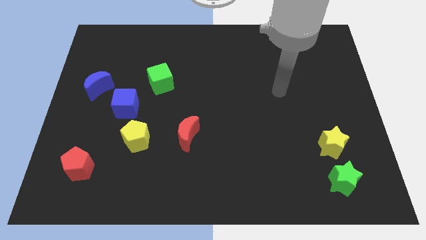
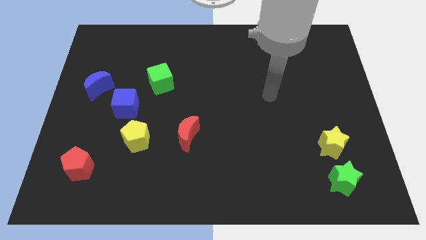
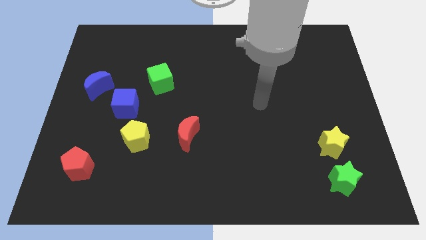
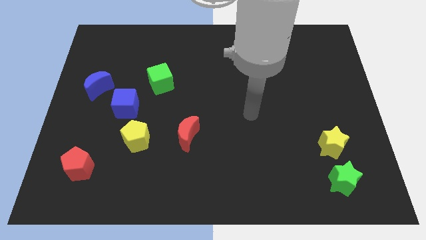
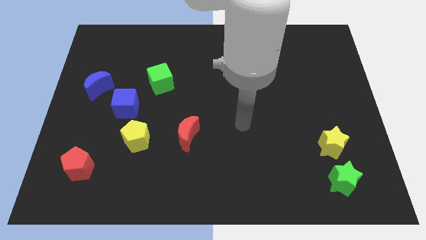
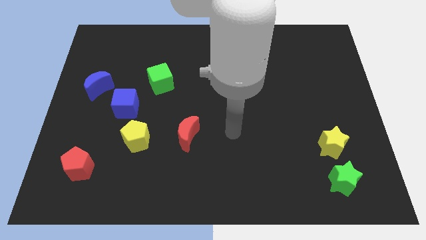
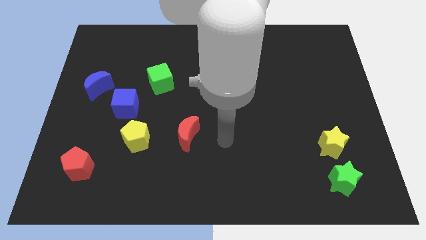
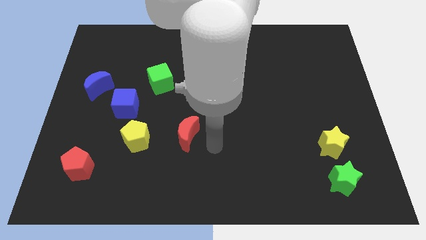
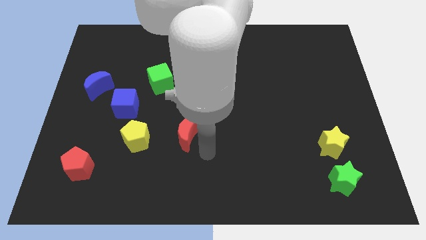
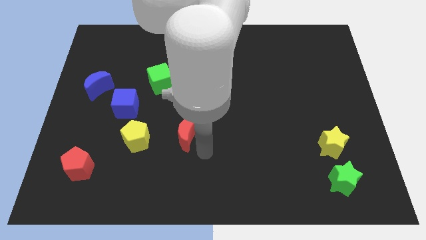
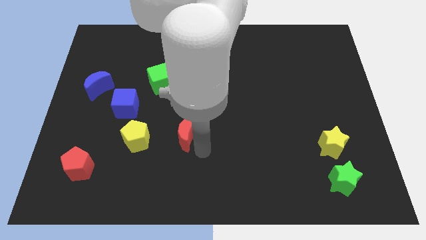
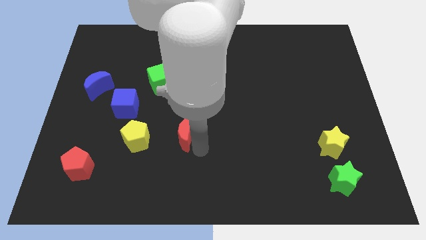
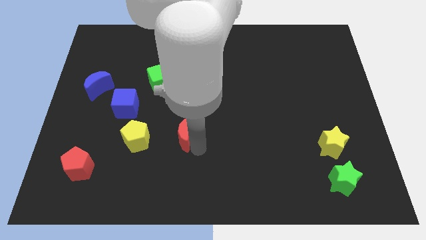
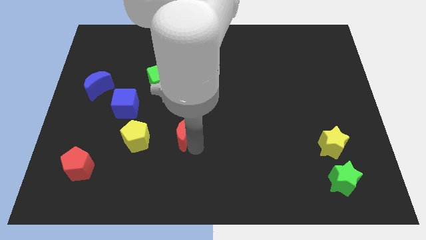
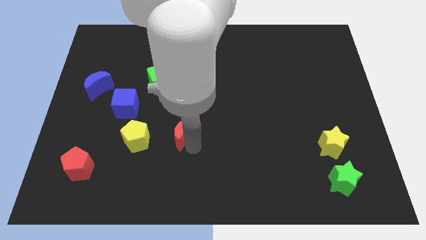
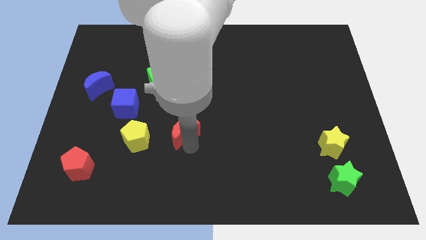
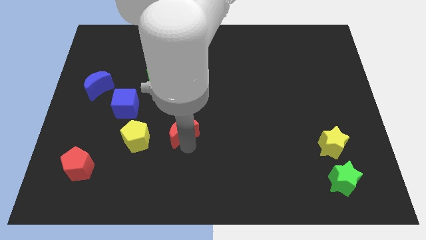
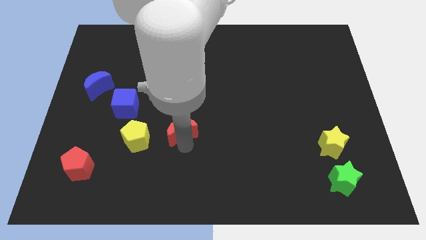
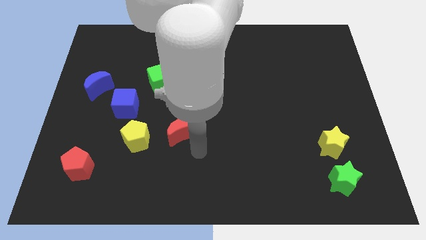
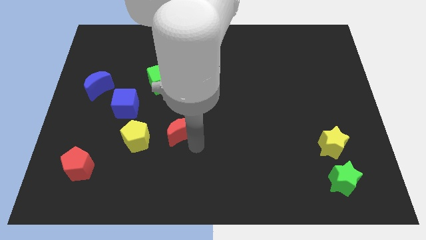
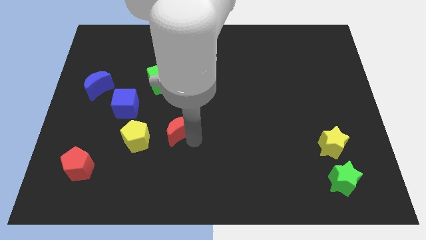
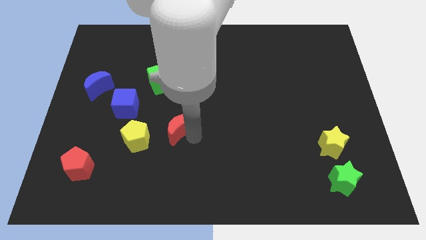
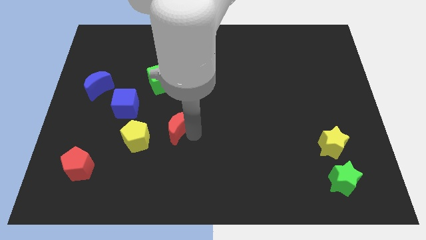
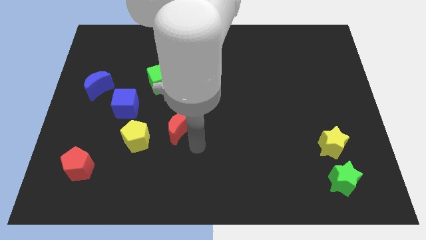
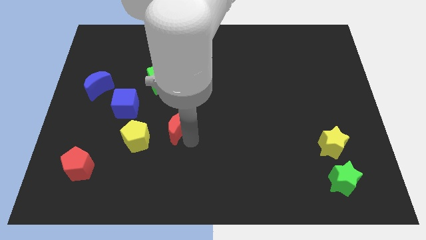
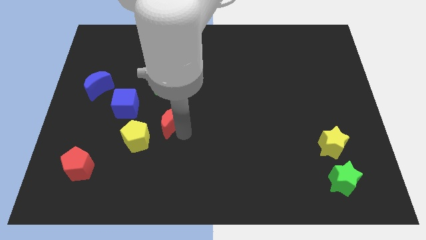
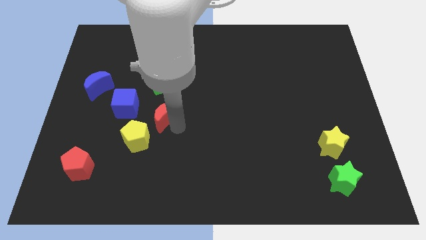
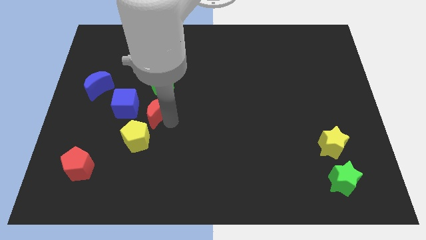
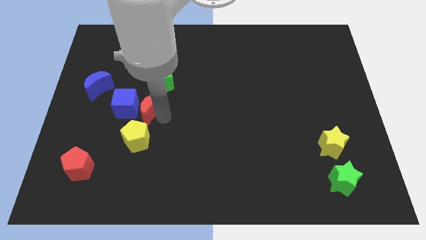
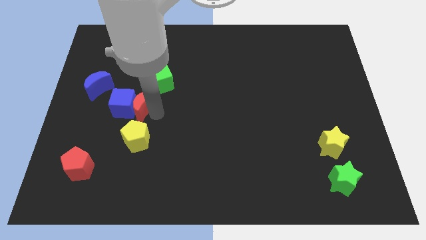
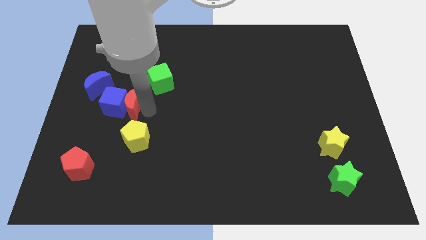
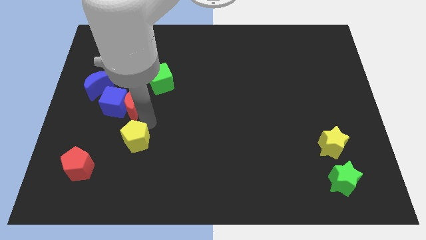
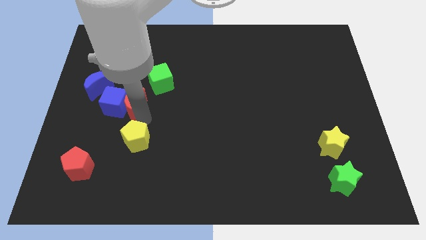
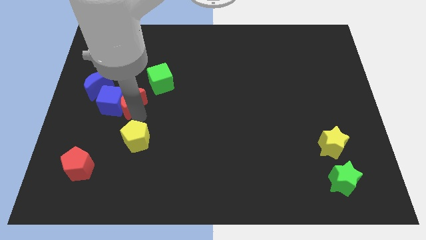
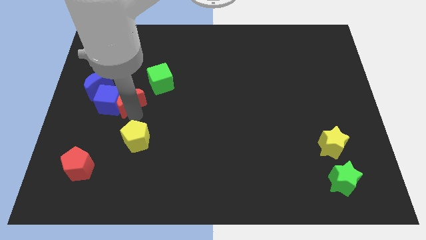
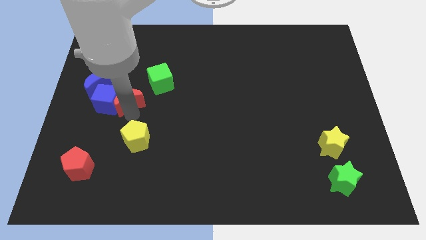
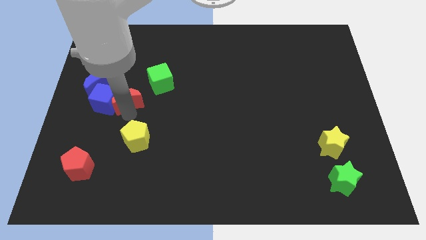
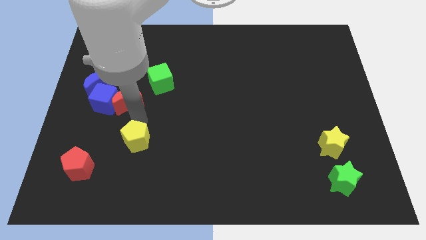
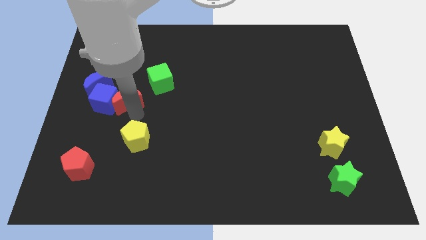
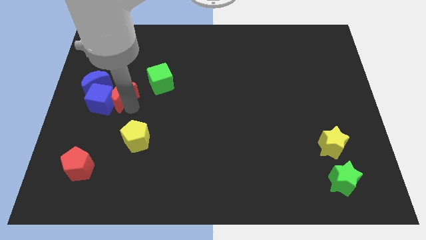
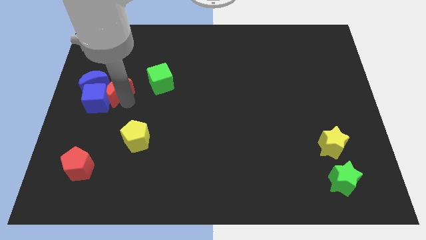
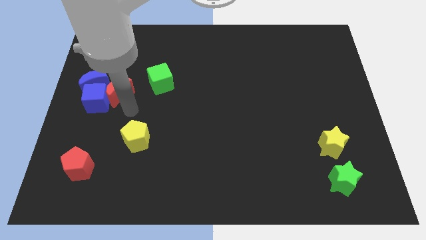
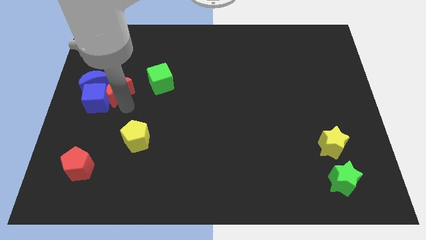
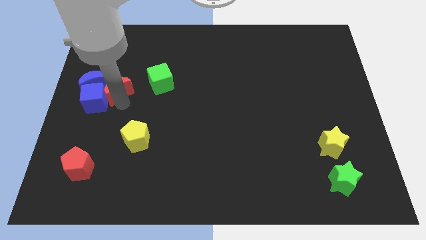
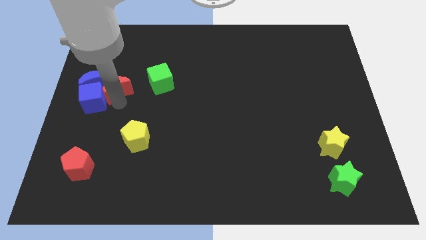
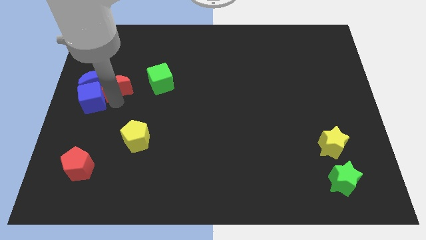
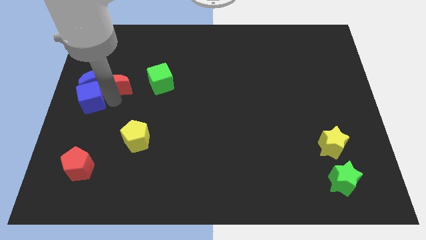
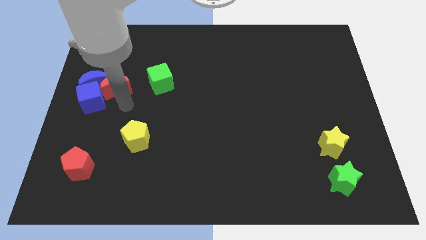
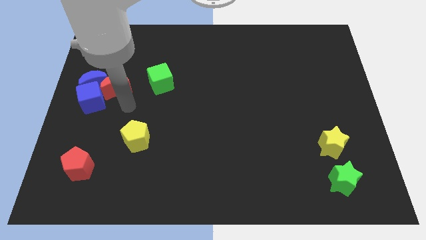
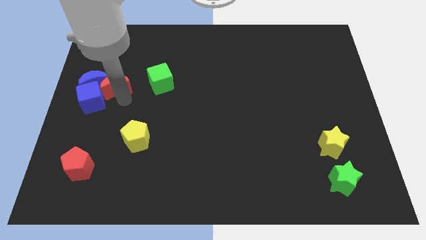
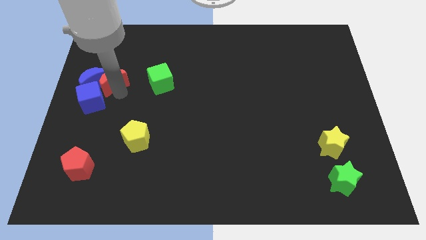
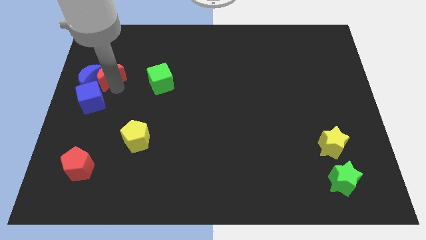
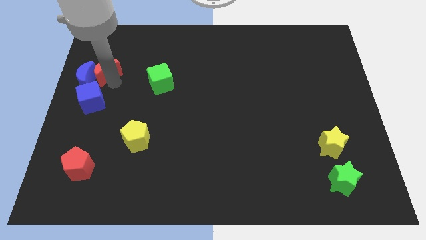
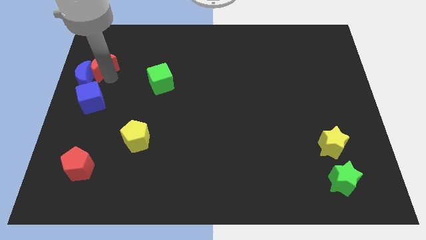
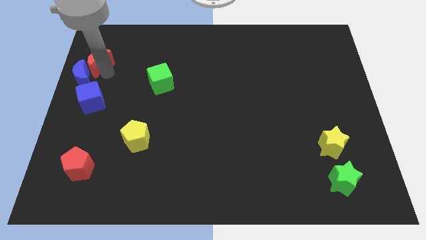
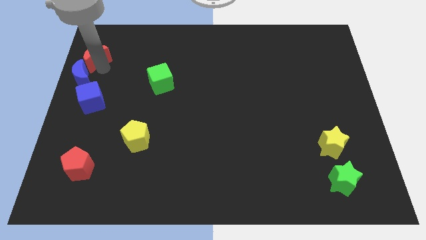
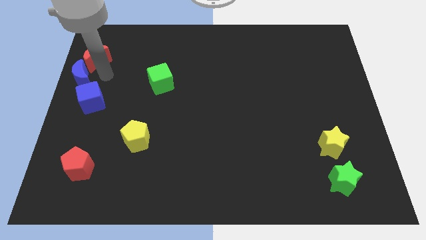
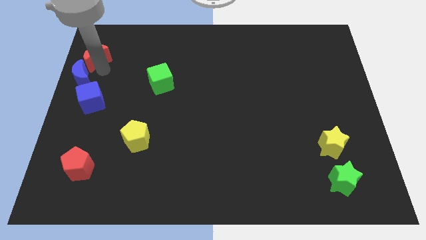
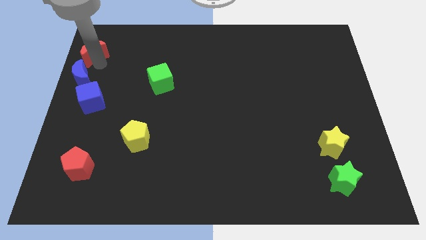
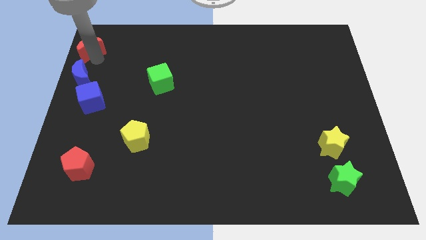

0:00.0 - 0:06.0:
move the red moon to the upper left corner
